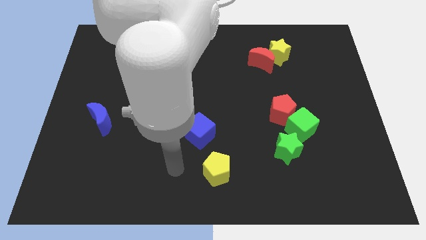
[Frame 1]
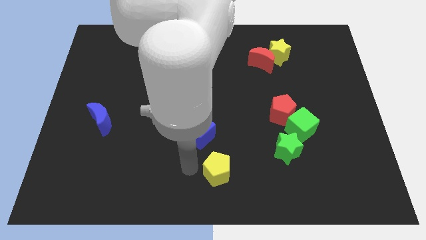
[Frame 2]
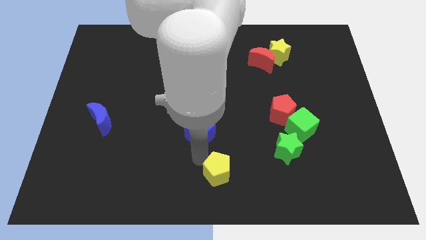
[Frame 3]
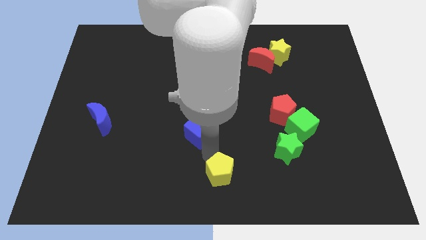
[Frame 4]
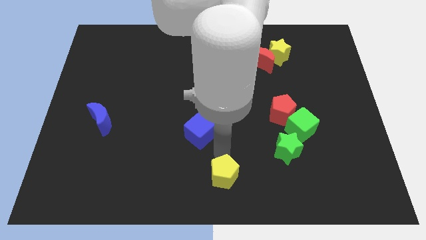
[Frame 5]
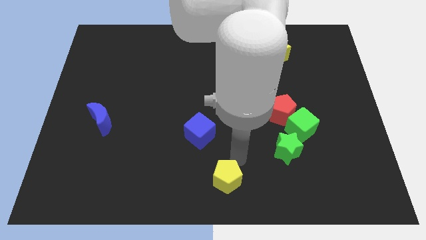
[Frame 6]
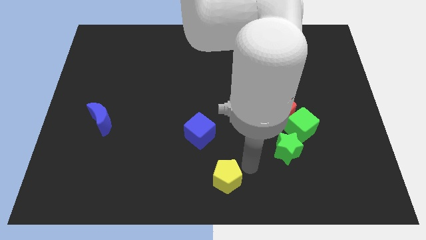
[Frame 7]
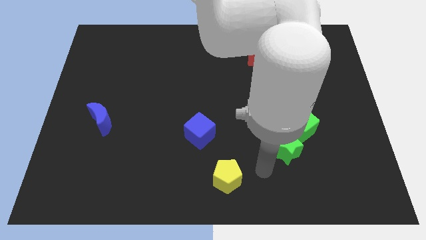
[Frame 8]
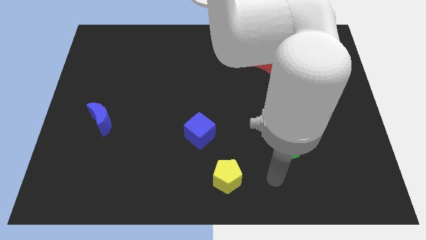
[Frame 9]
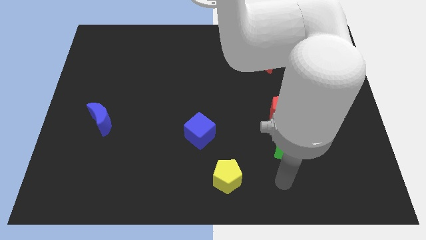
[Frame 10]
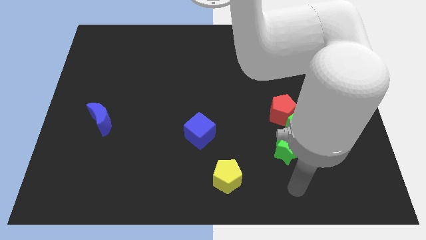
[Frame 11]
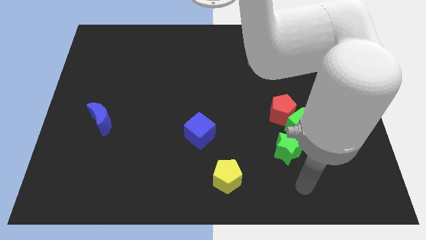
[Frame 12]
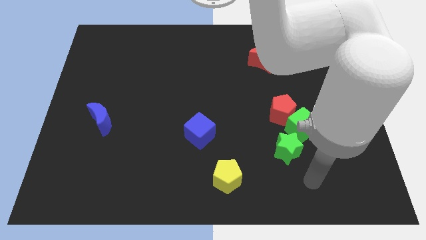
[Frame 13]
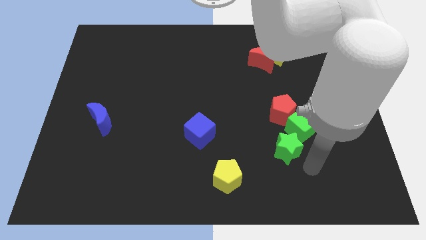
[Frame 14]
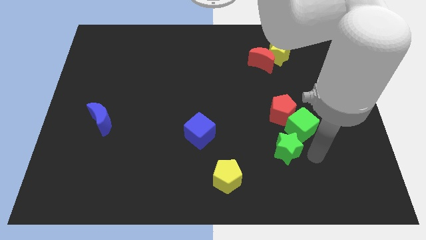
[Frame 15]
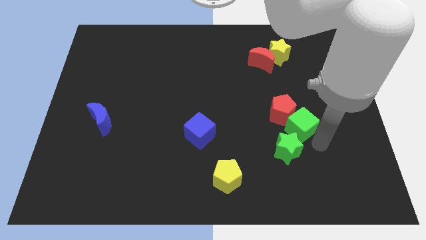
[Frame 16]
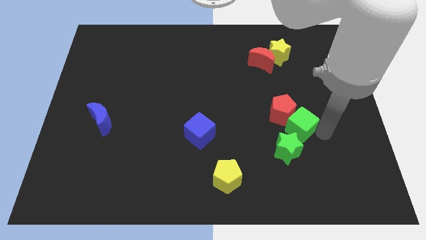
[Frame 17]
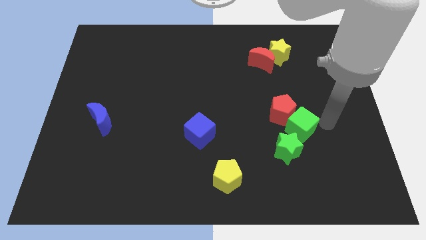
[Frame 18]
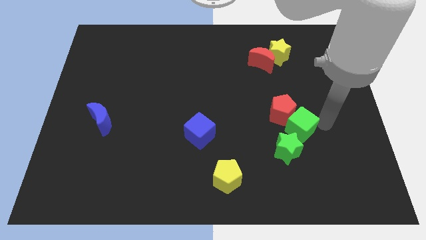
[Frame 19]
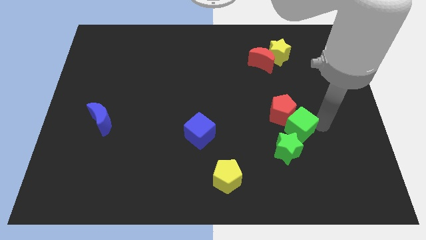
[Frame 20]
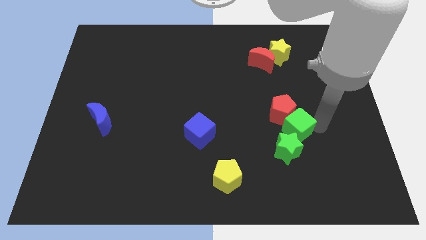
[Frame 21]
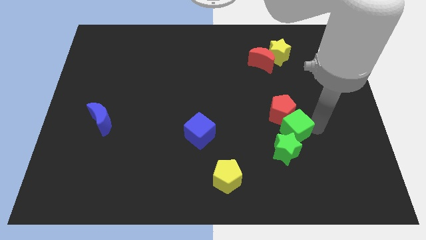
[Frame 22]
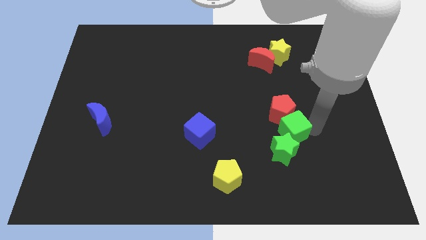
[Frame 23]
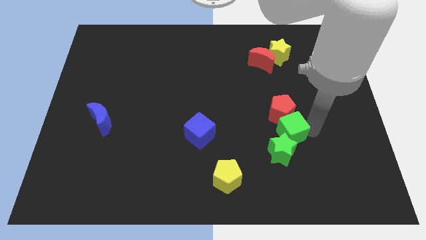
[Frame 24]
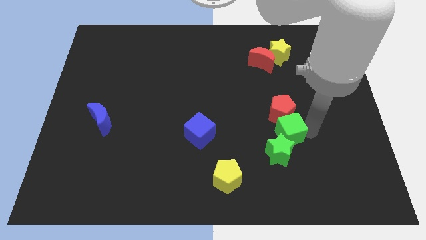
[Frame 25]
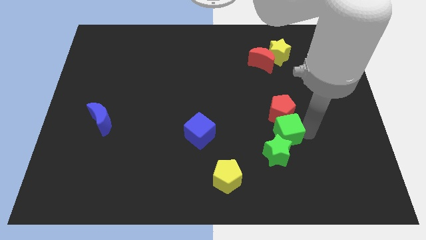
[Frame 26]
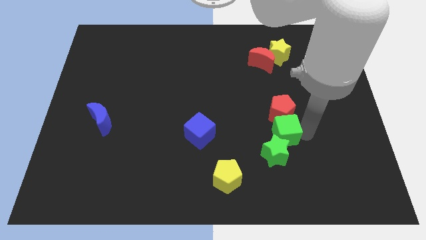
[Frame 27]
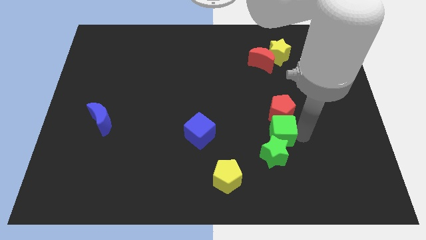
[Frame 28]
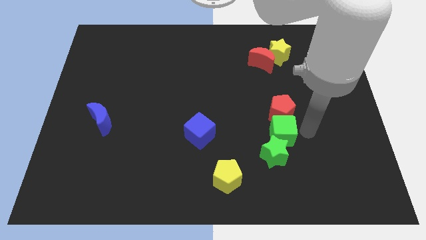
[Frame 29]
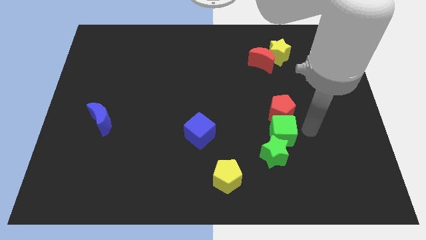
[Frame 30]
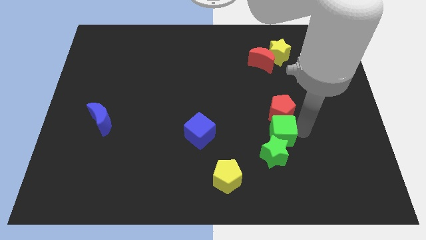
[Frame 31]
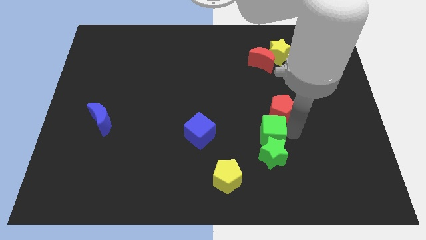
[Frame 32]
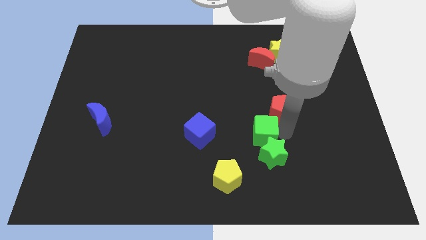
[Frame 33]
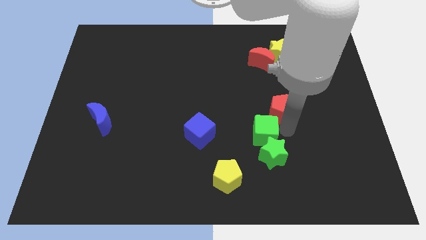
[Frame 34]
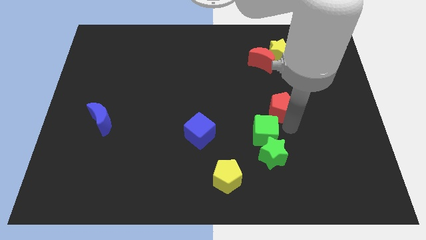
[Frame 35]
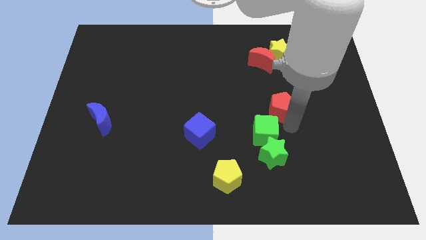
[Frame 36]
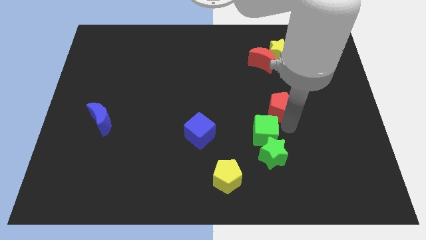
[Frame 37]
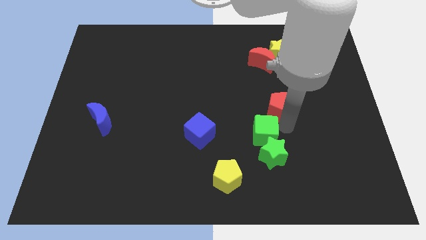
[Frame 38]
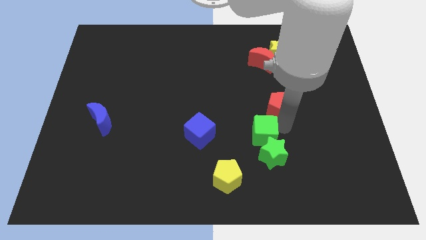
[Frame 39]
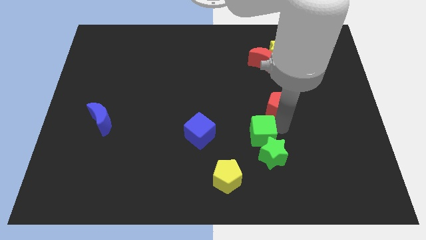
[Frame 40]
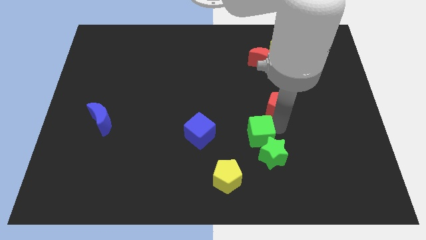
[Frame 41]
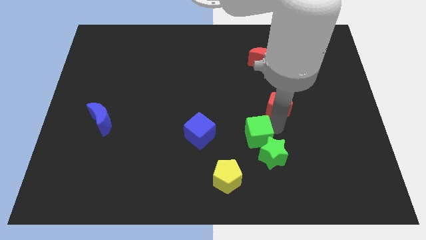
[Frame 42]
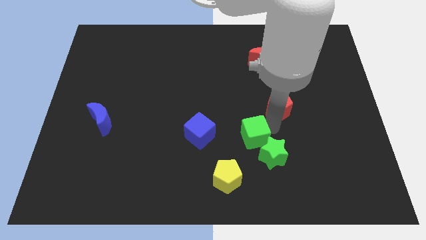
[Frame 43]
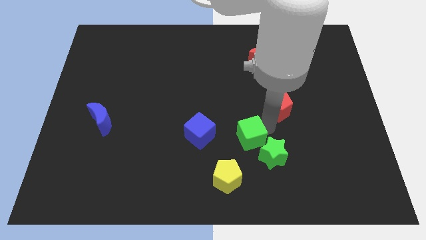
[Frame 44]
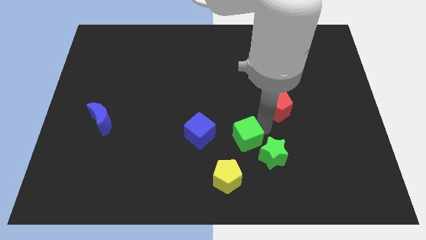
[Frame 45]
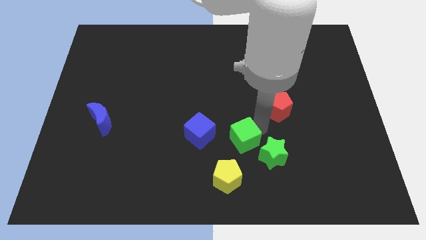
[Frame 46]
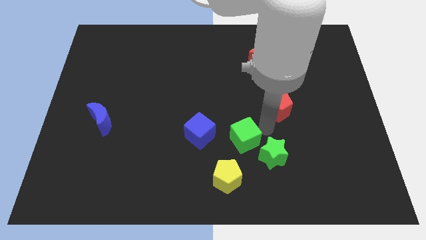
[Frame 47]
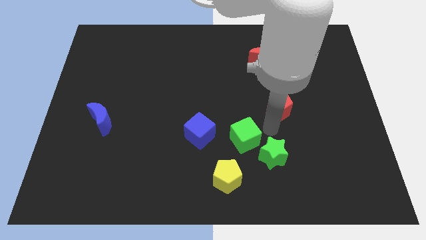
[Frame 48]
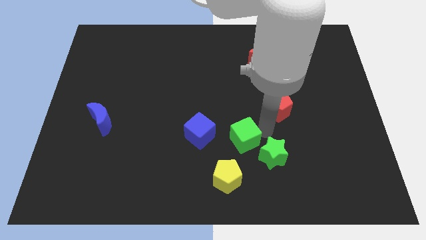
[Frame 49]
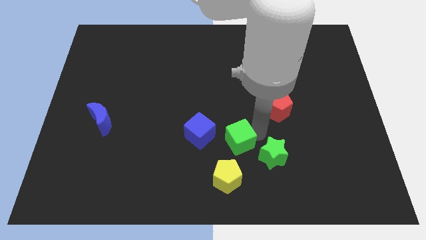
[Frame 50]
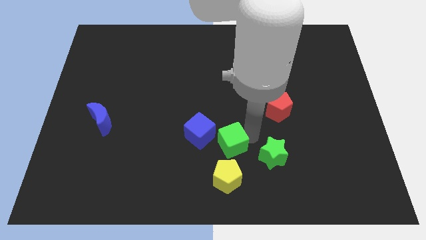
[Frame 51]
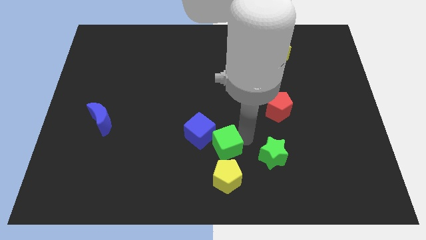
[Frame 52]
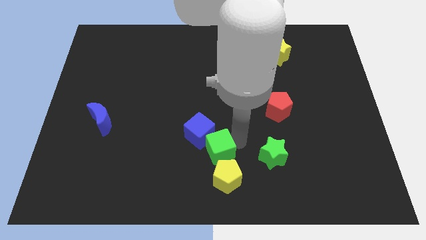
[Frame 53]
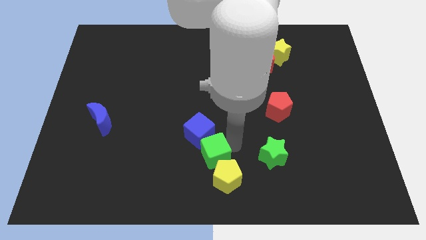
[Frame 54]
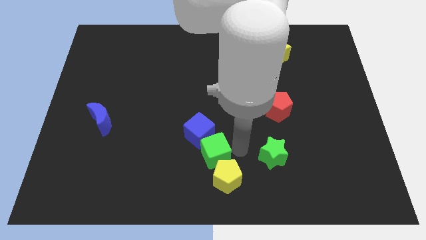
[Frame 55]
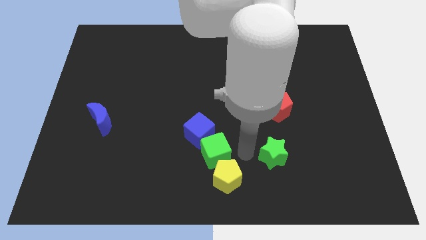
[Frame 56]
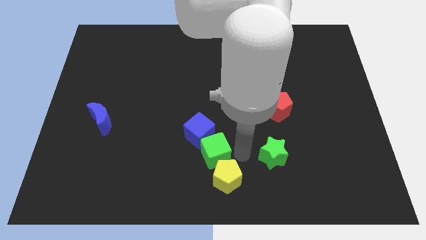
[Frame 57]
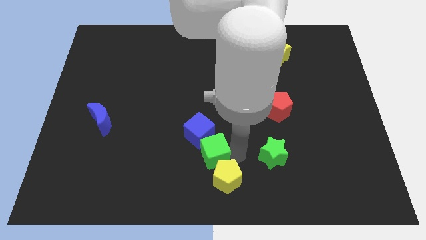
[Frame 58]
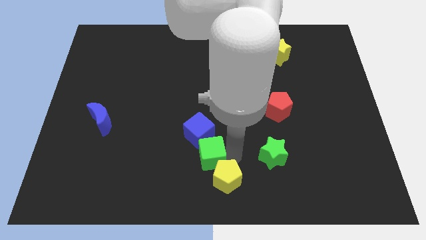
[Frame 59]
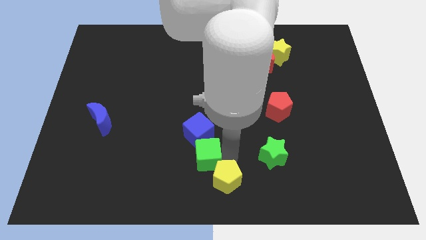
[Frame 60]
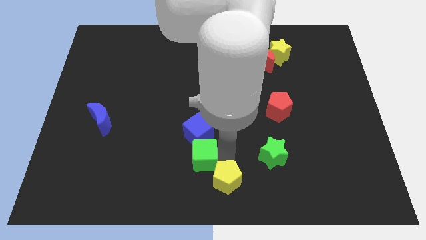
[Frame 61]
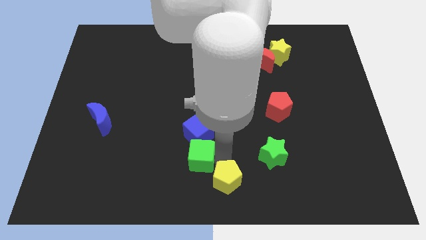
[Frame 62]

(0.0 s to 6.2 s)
slide the green cube to the bottom left side of the blue cube

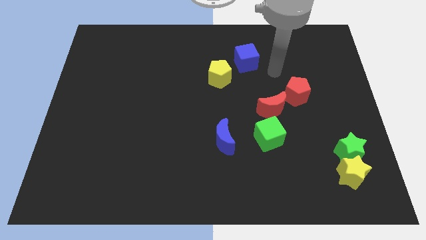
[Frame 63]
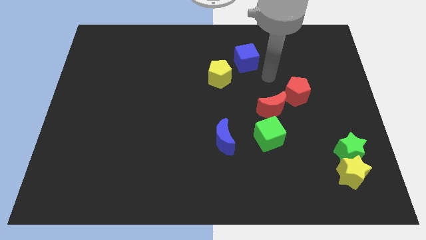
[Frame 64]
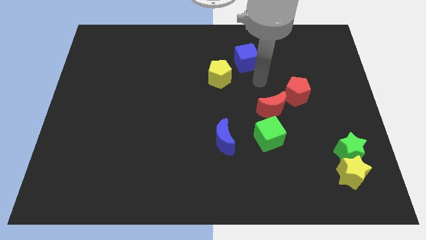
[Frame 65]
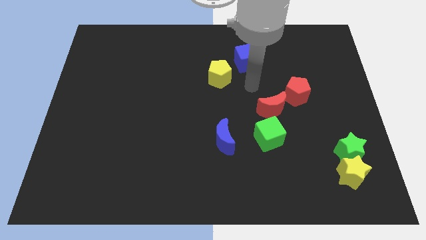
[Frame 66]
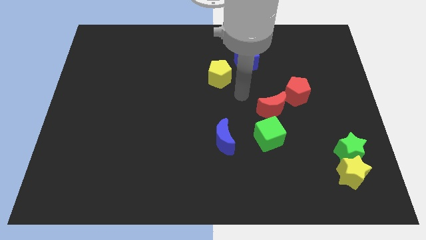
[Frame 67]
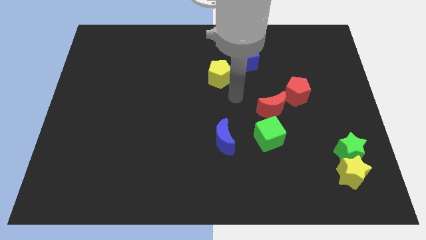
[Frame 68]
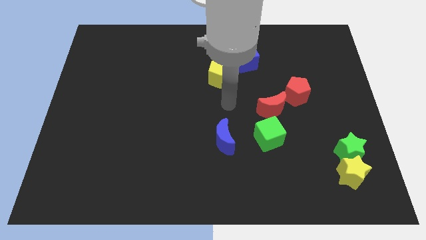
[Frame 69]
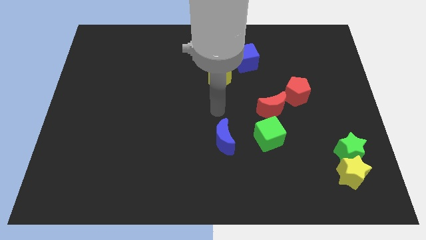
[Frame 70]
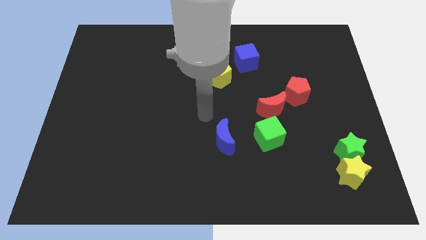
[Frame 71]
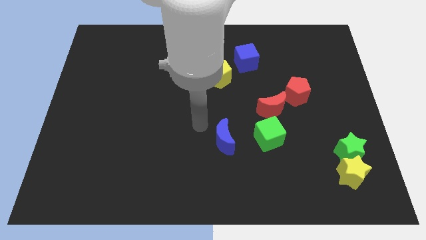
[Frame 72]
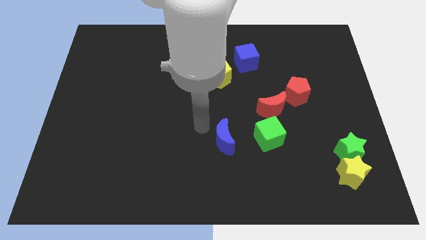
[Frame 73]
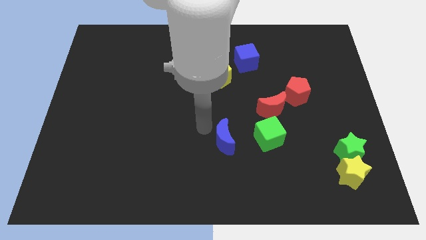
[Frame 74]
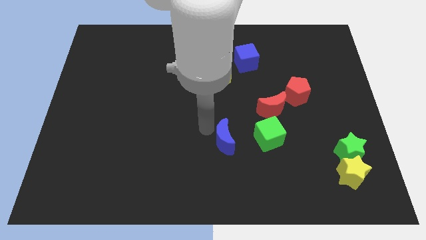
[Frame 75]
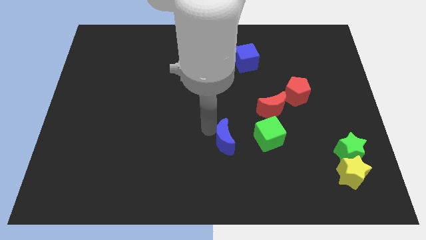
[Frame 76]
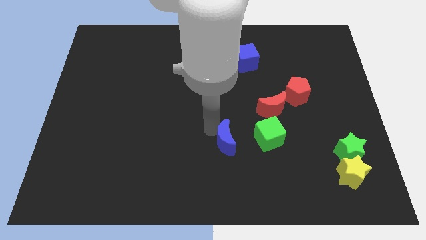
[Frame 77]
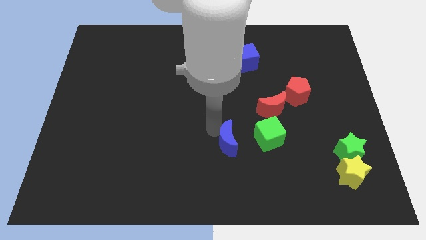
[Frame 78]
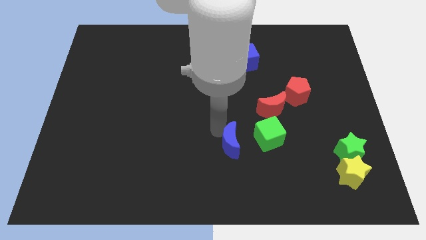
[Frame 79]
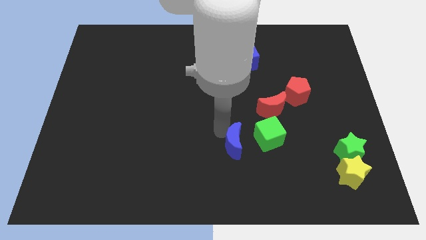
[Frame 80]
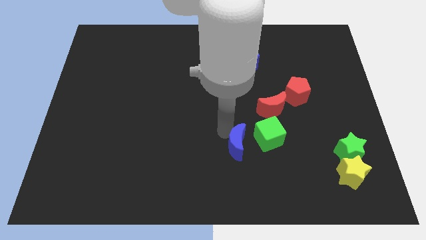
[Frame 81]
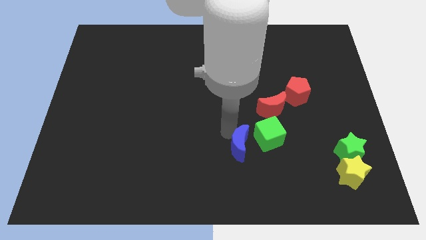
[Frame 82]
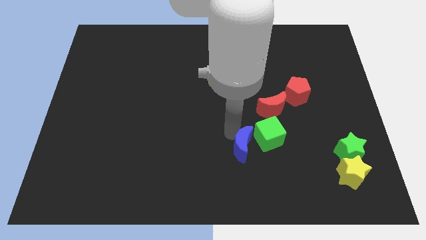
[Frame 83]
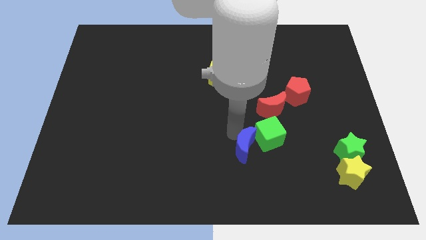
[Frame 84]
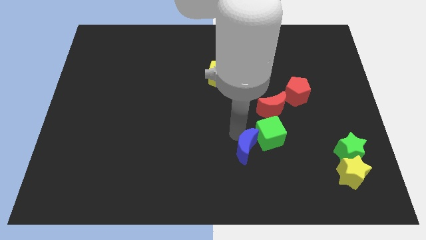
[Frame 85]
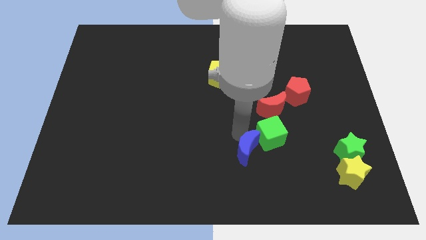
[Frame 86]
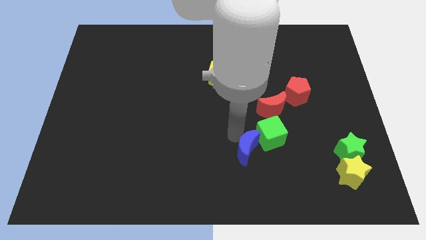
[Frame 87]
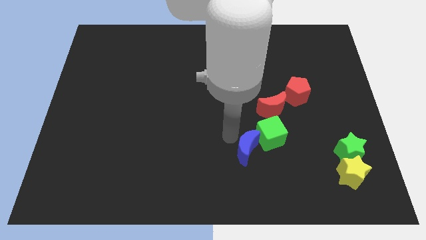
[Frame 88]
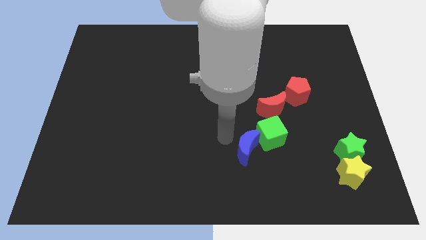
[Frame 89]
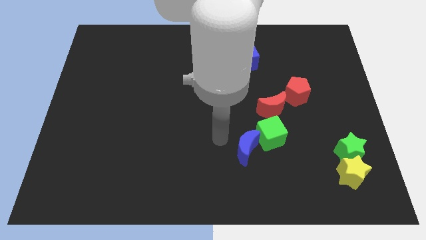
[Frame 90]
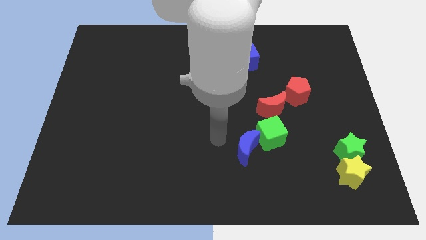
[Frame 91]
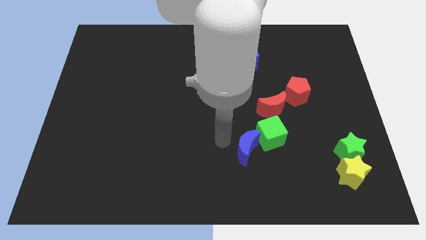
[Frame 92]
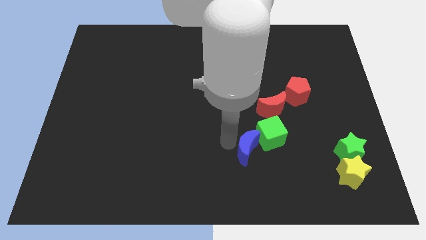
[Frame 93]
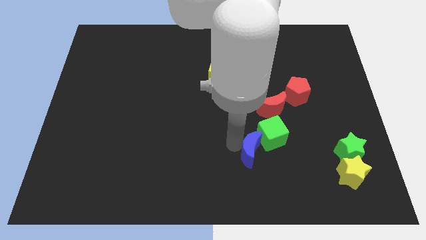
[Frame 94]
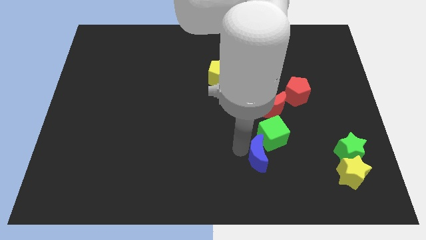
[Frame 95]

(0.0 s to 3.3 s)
put the blue moon below the red moon
